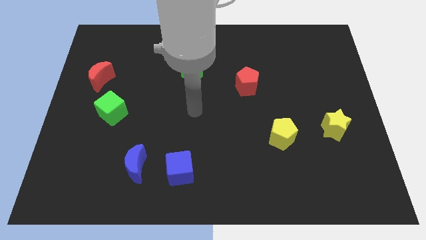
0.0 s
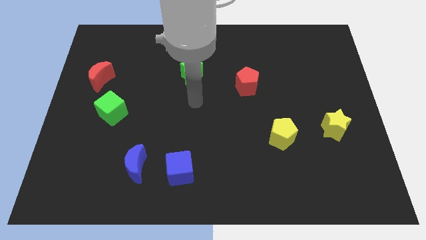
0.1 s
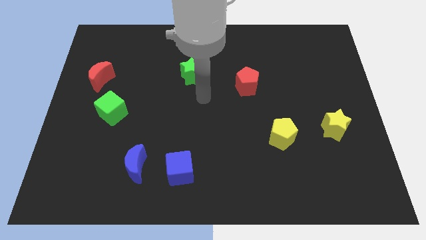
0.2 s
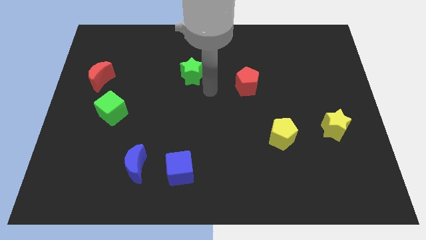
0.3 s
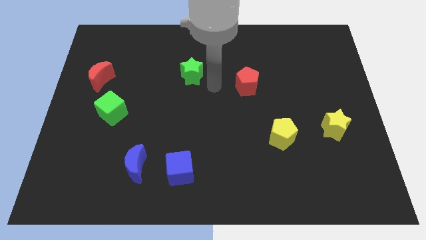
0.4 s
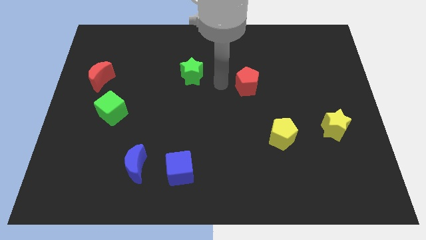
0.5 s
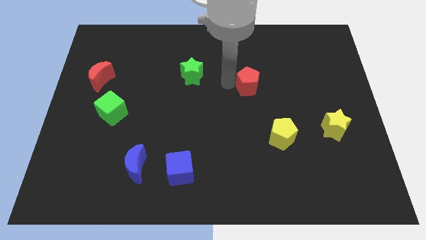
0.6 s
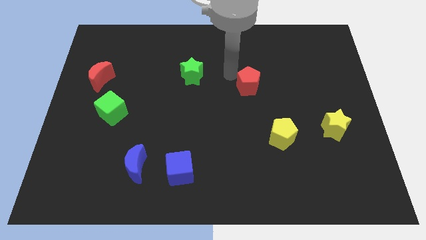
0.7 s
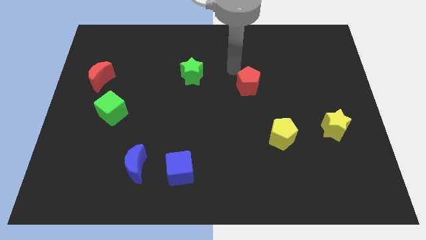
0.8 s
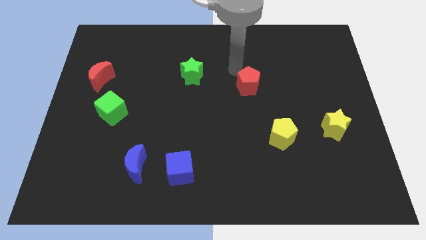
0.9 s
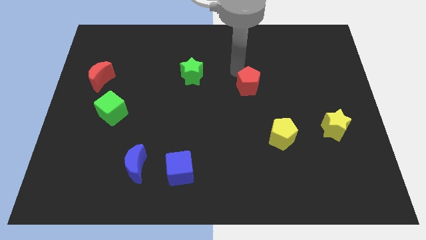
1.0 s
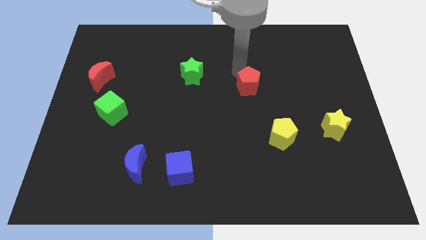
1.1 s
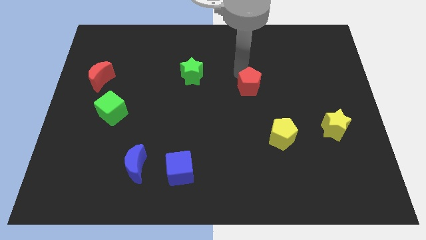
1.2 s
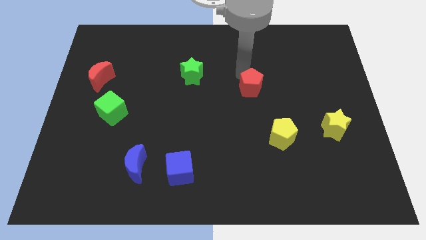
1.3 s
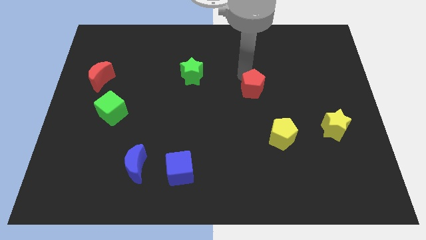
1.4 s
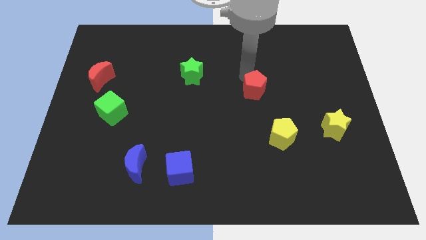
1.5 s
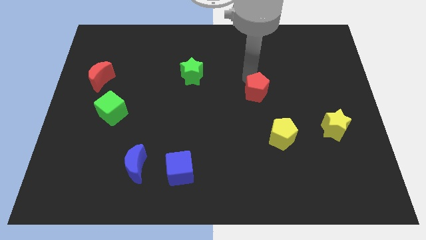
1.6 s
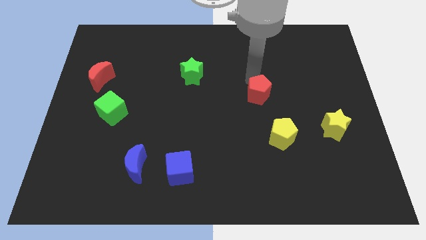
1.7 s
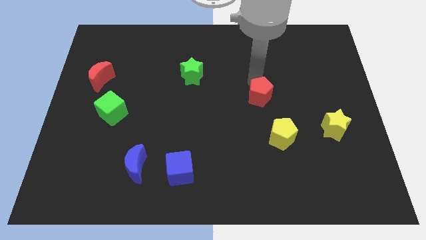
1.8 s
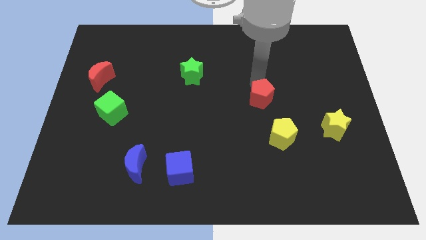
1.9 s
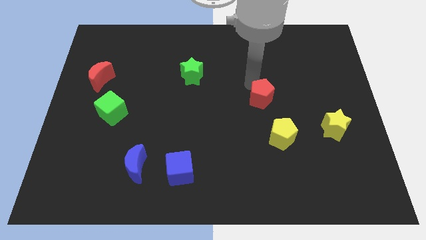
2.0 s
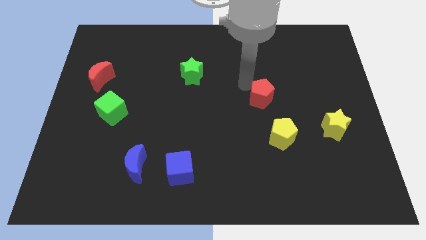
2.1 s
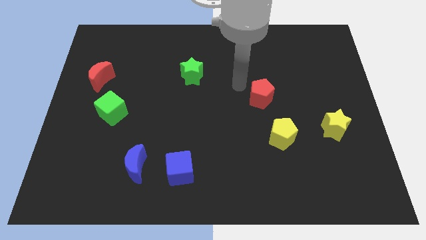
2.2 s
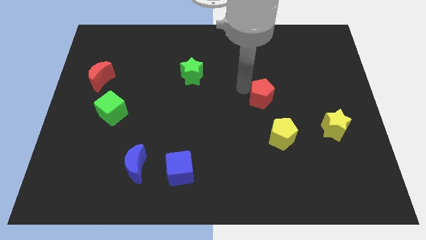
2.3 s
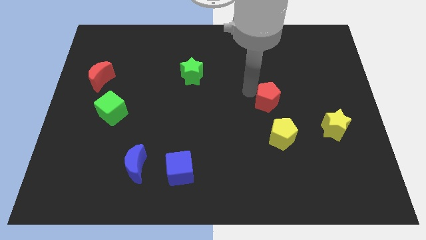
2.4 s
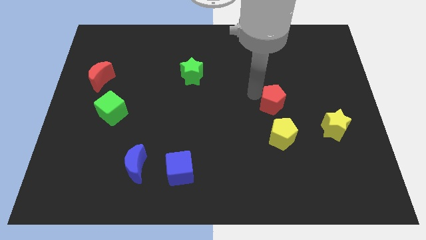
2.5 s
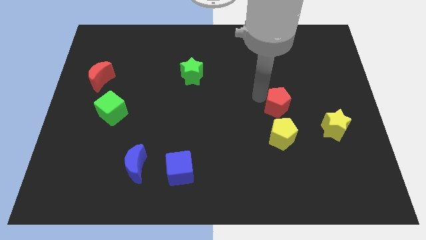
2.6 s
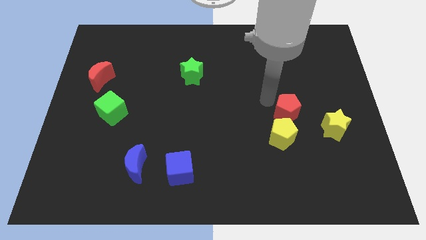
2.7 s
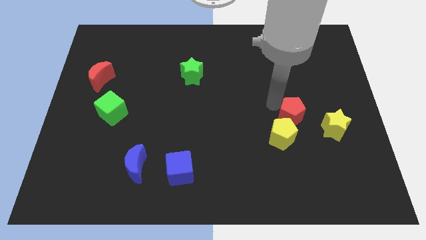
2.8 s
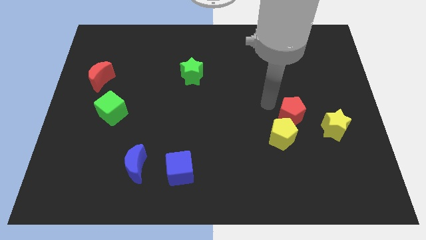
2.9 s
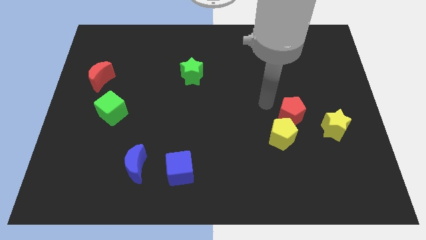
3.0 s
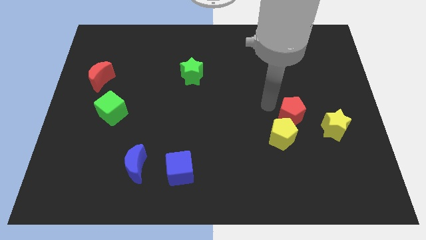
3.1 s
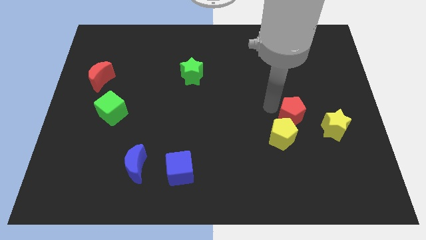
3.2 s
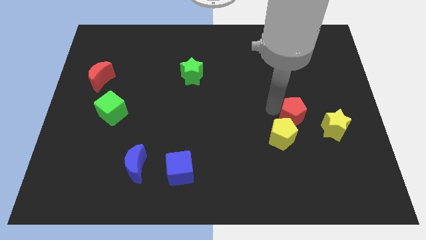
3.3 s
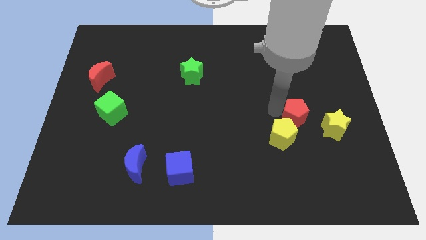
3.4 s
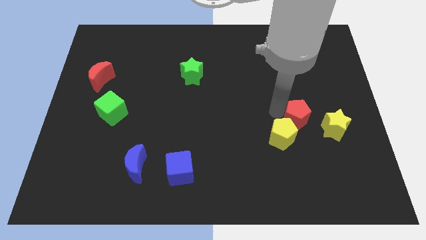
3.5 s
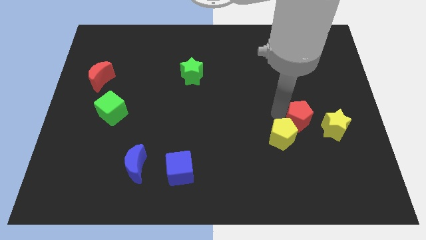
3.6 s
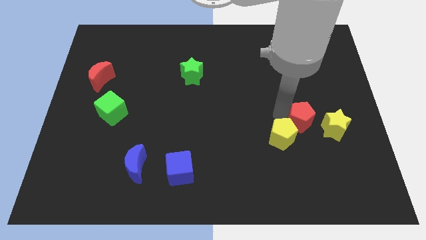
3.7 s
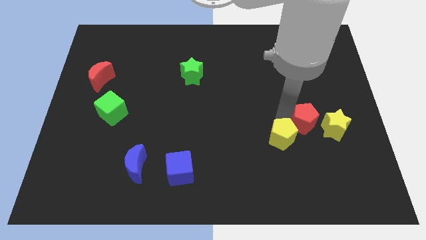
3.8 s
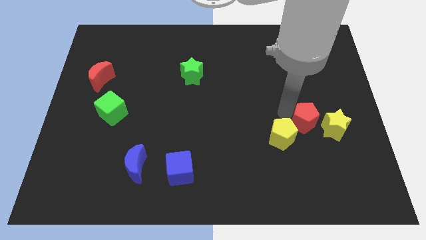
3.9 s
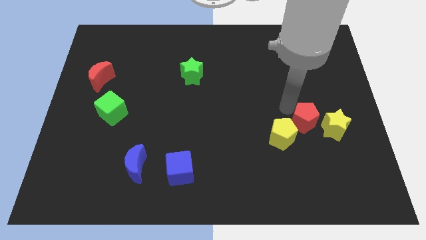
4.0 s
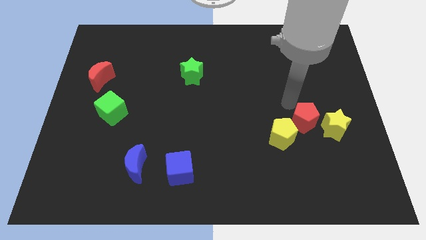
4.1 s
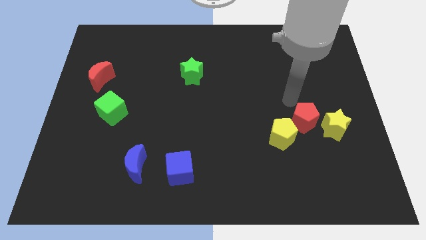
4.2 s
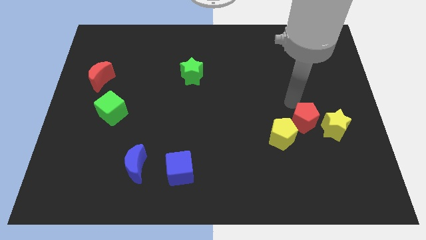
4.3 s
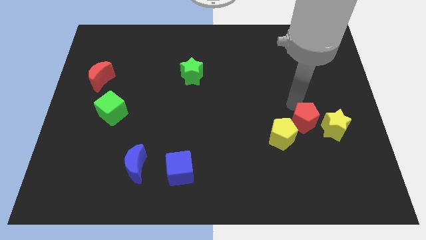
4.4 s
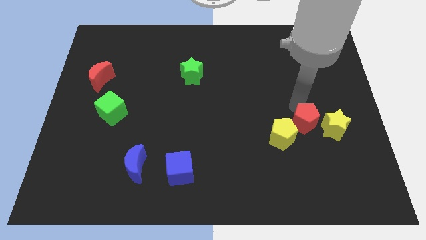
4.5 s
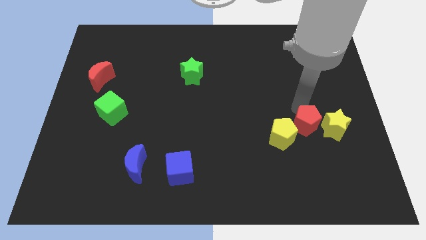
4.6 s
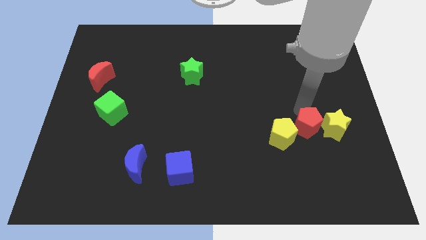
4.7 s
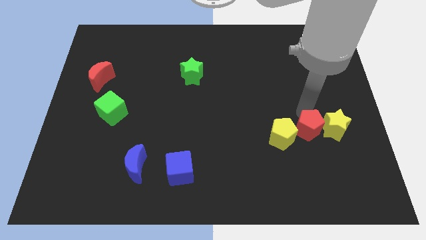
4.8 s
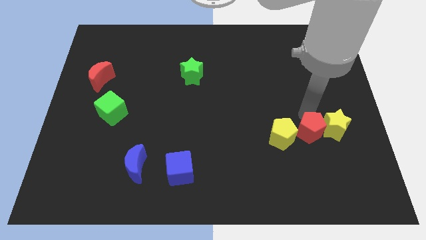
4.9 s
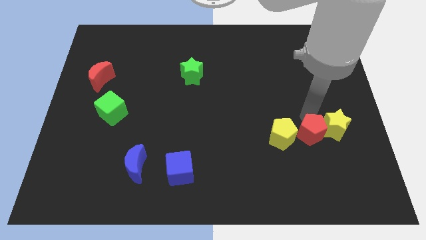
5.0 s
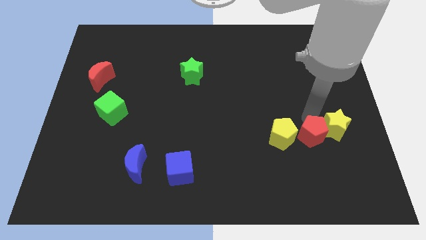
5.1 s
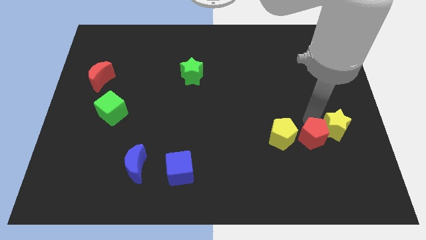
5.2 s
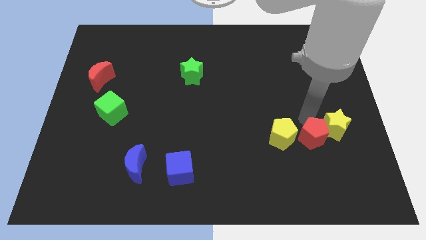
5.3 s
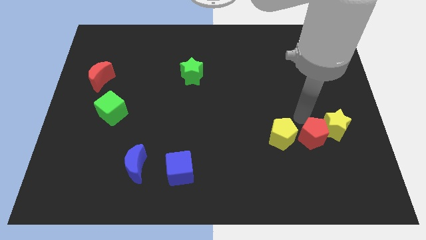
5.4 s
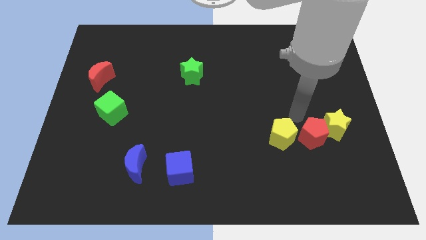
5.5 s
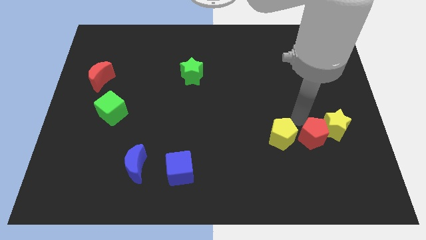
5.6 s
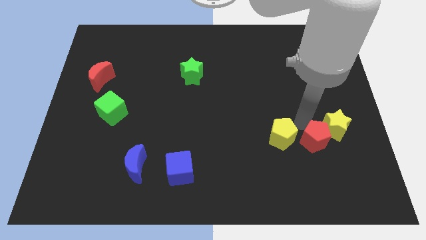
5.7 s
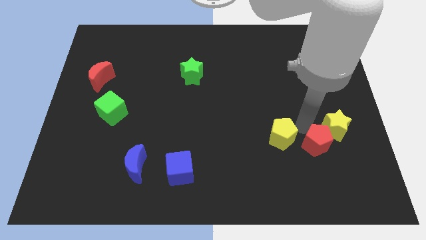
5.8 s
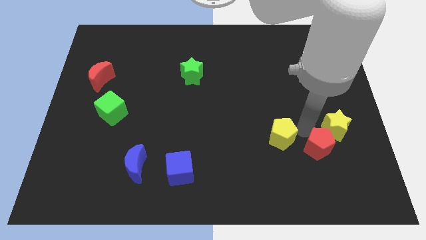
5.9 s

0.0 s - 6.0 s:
push the red pentagon below the yellow star
